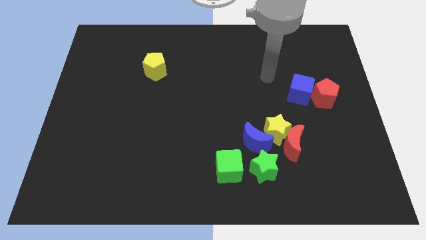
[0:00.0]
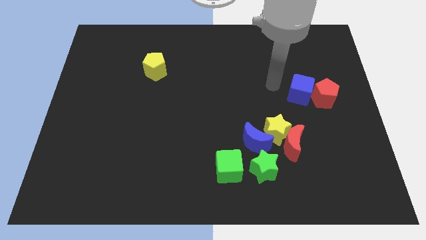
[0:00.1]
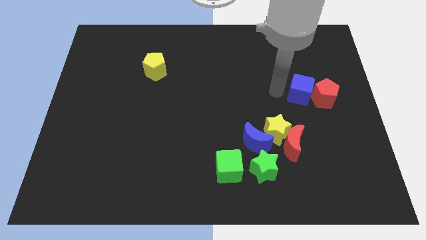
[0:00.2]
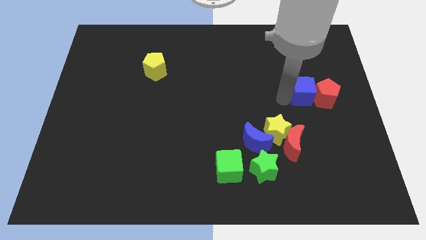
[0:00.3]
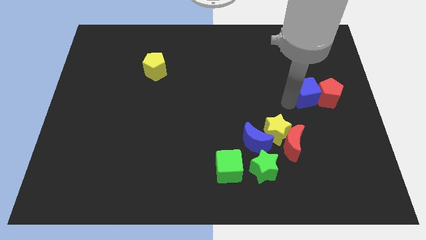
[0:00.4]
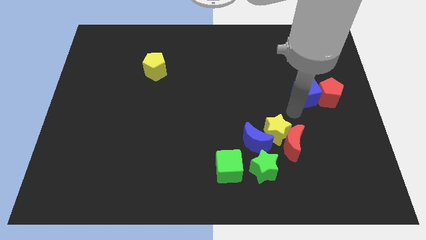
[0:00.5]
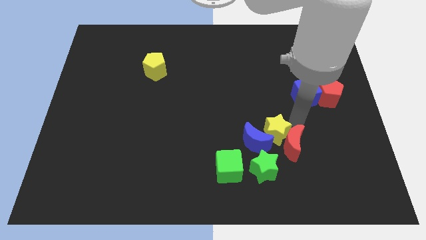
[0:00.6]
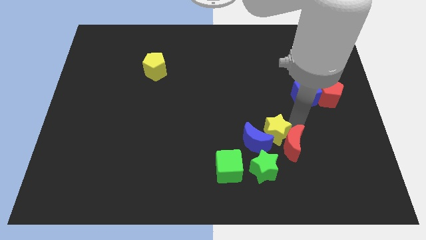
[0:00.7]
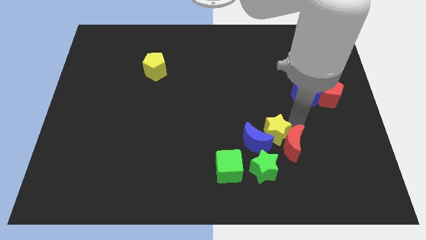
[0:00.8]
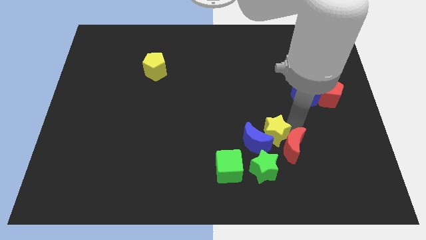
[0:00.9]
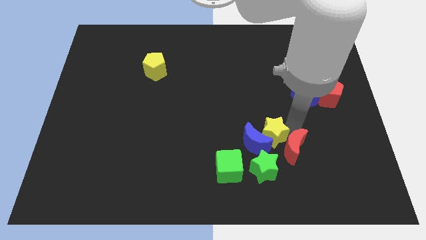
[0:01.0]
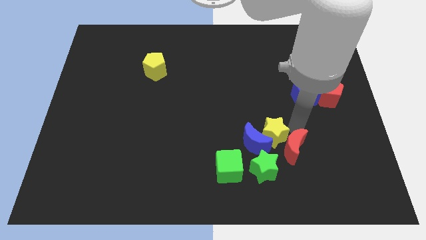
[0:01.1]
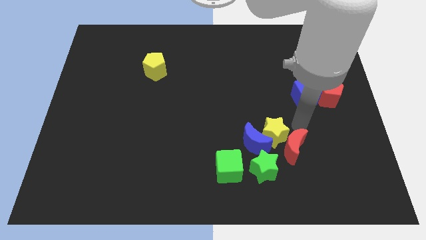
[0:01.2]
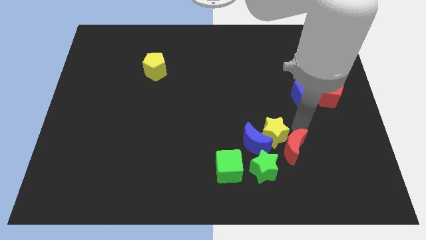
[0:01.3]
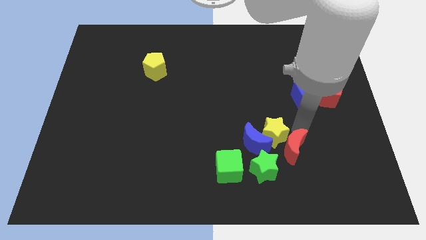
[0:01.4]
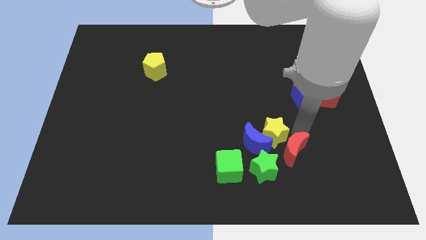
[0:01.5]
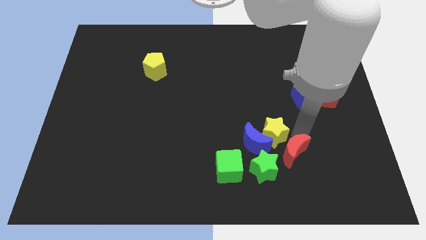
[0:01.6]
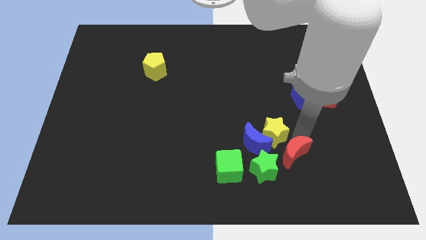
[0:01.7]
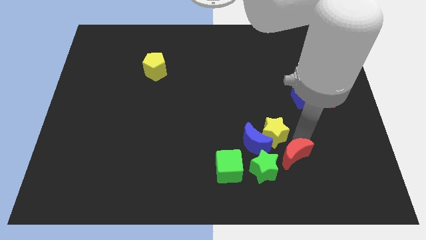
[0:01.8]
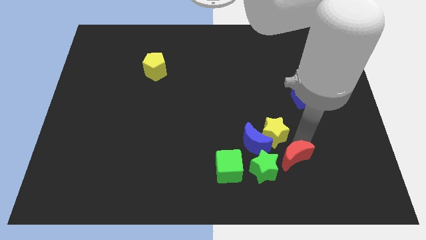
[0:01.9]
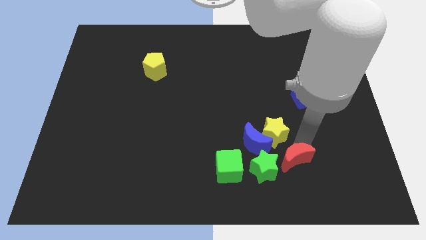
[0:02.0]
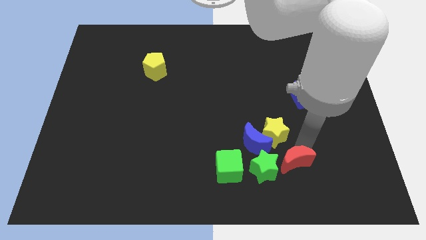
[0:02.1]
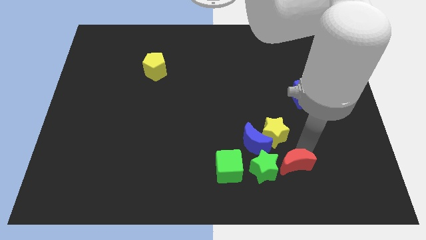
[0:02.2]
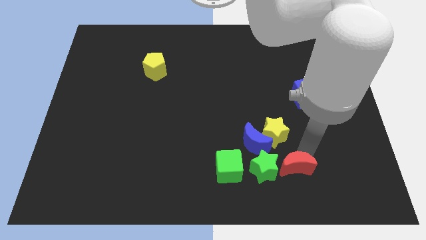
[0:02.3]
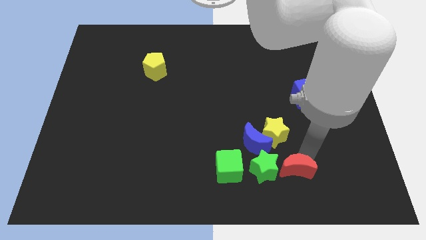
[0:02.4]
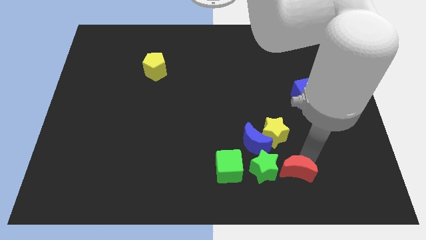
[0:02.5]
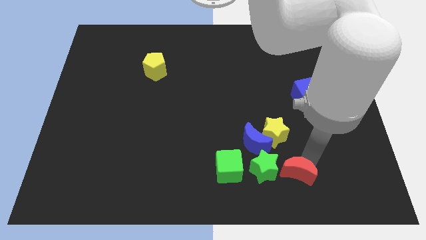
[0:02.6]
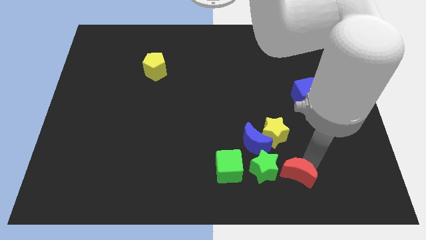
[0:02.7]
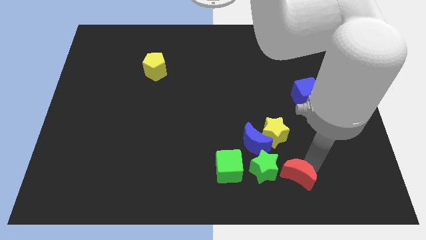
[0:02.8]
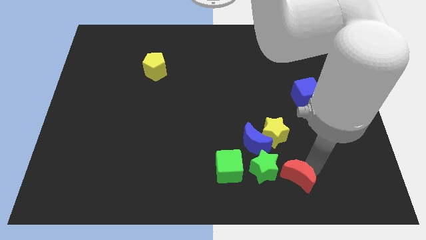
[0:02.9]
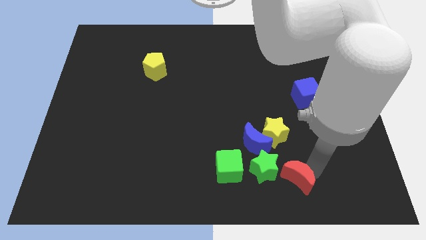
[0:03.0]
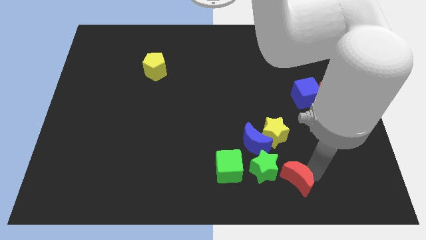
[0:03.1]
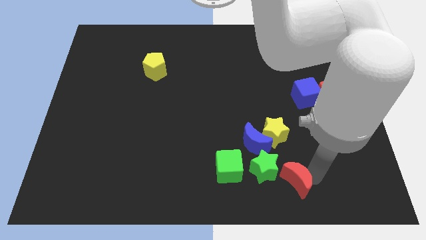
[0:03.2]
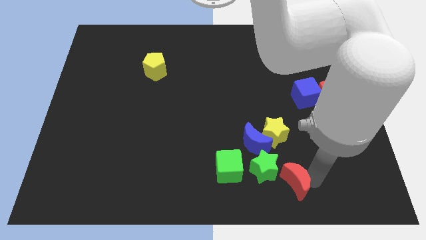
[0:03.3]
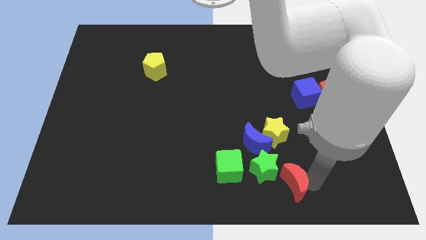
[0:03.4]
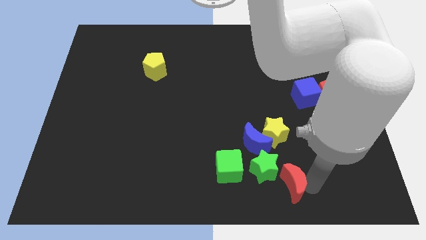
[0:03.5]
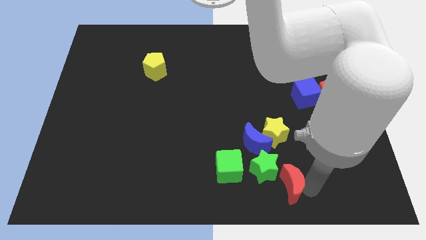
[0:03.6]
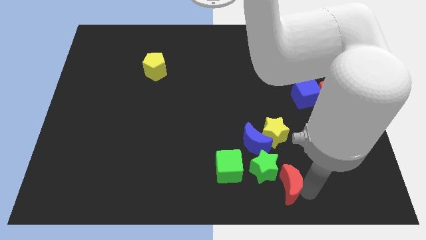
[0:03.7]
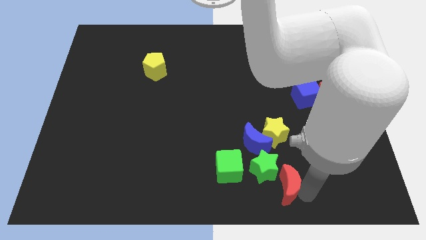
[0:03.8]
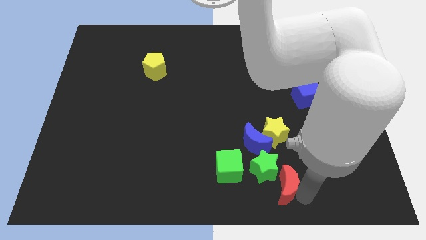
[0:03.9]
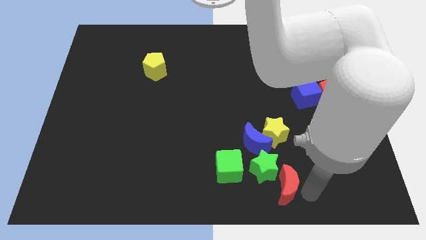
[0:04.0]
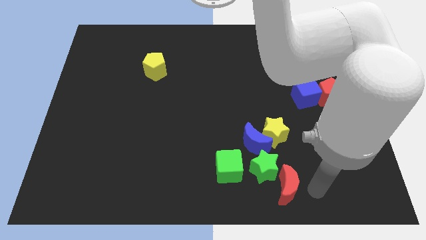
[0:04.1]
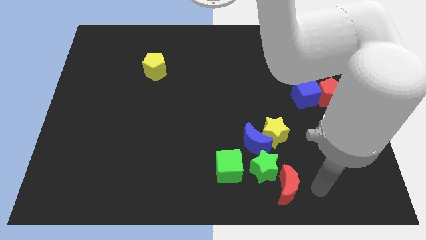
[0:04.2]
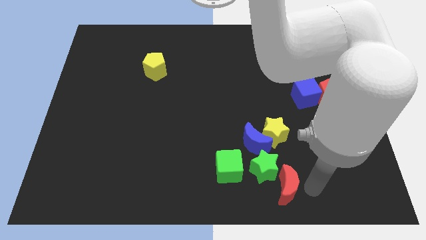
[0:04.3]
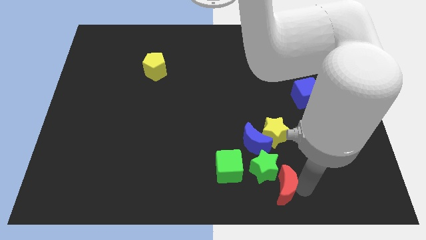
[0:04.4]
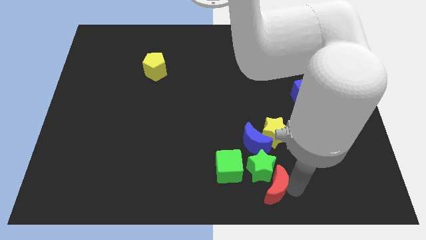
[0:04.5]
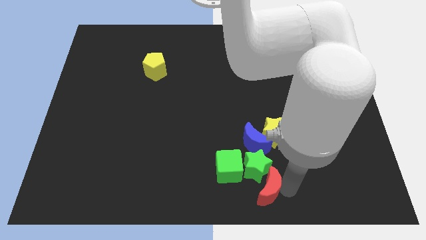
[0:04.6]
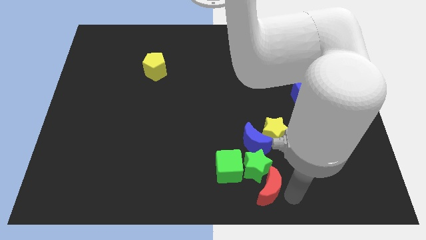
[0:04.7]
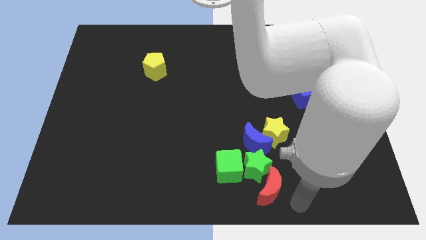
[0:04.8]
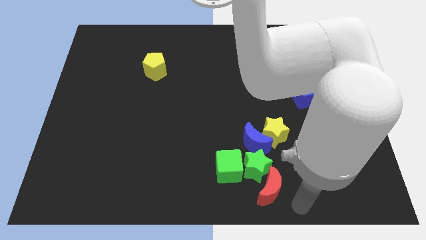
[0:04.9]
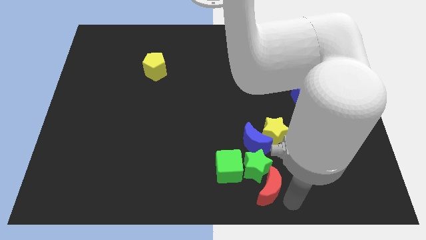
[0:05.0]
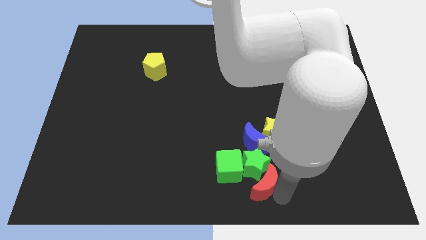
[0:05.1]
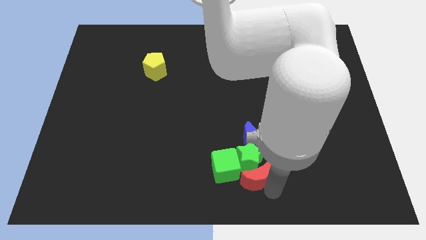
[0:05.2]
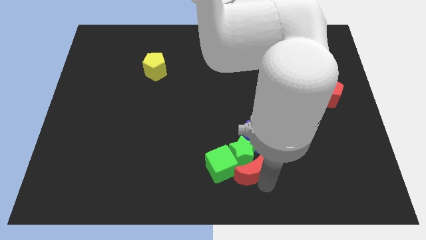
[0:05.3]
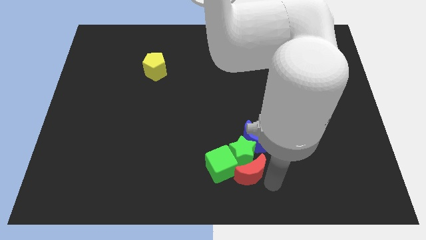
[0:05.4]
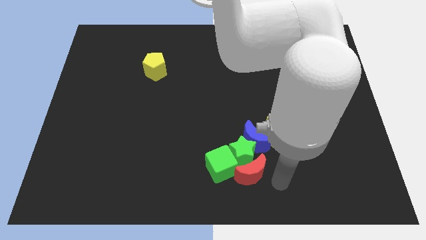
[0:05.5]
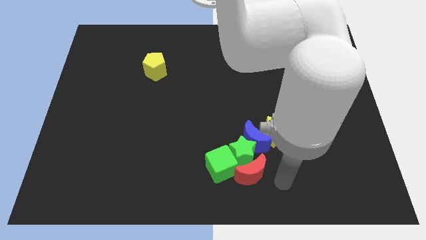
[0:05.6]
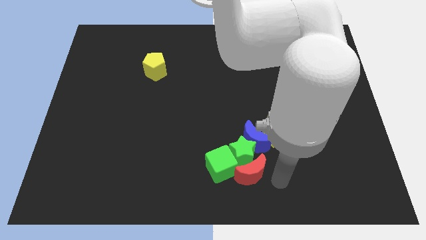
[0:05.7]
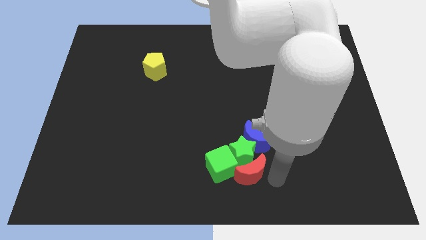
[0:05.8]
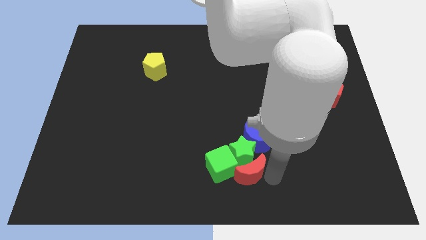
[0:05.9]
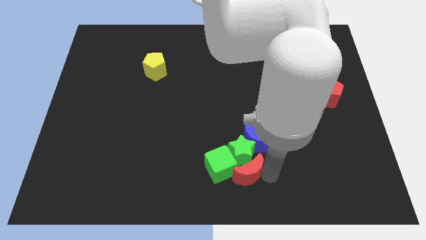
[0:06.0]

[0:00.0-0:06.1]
slide the red moon close to the green cube

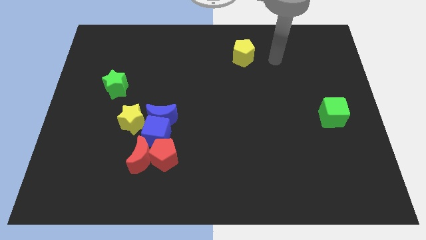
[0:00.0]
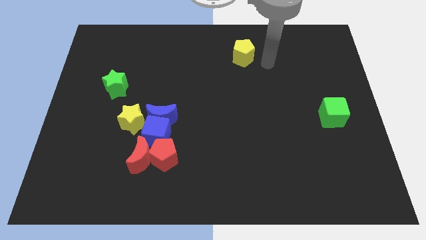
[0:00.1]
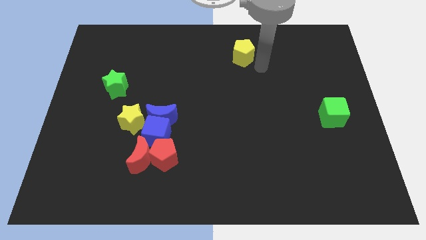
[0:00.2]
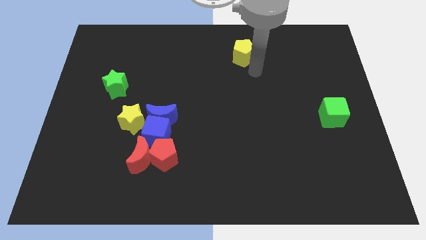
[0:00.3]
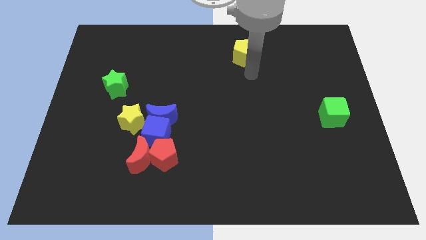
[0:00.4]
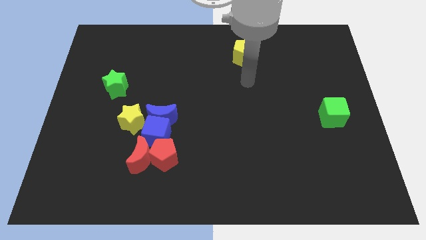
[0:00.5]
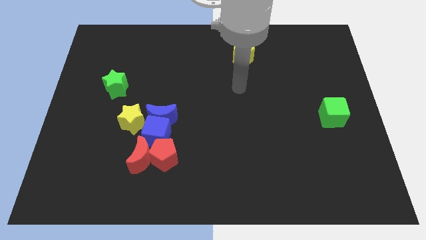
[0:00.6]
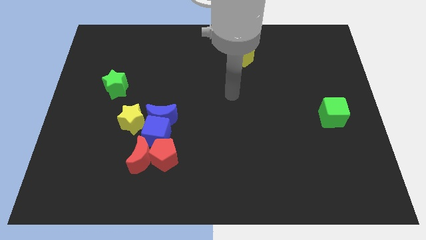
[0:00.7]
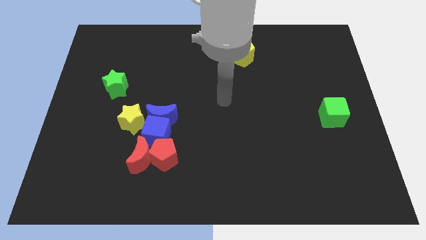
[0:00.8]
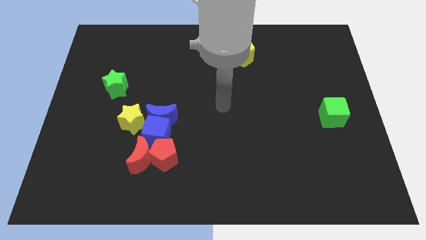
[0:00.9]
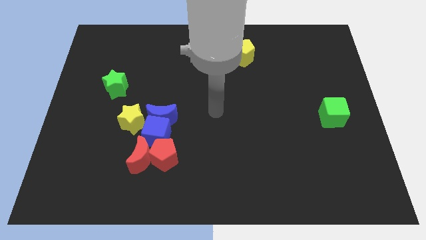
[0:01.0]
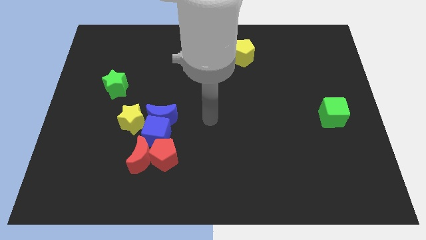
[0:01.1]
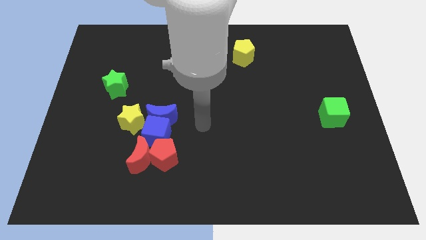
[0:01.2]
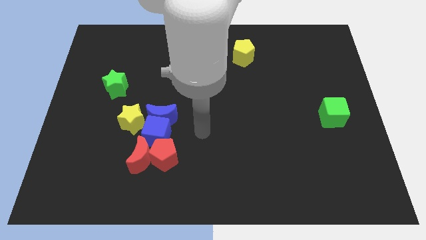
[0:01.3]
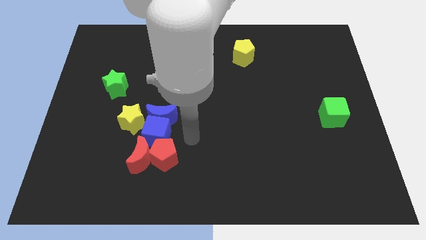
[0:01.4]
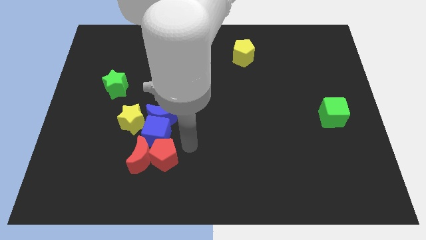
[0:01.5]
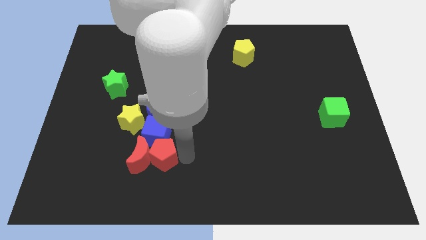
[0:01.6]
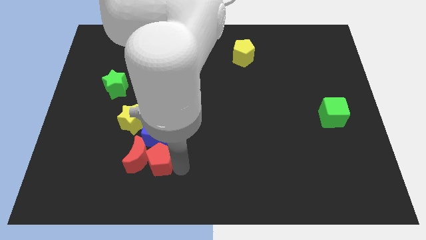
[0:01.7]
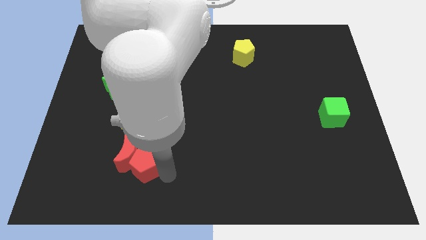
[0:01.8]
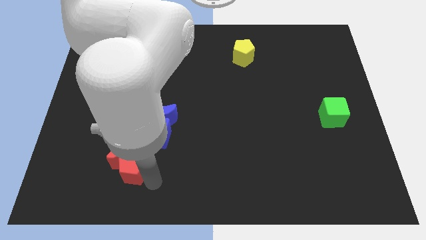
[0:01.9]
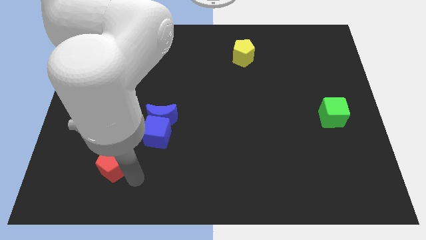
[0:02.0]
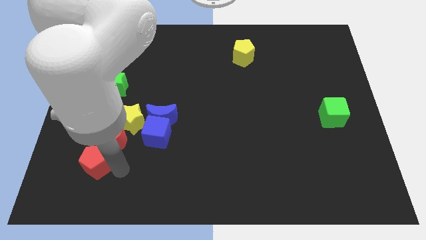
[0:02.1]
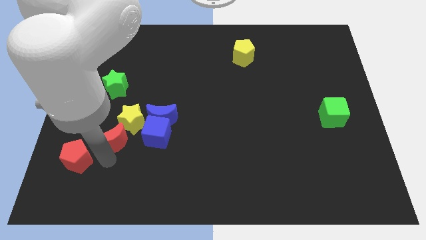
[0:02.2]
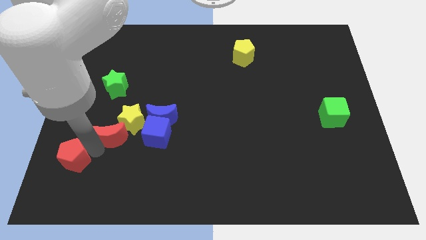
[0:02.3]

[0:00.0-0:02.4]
put the red moon close to the yellow star
